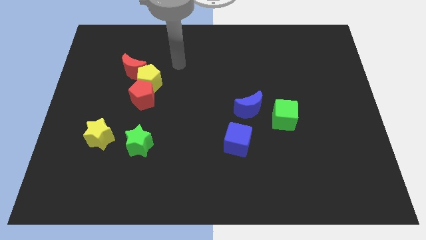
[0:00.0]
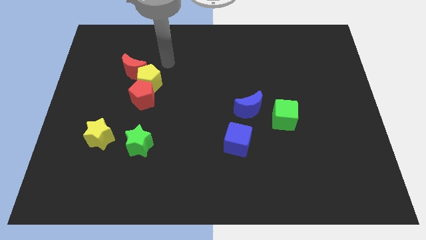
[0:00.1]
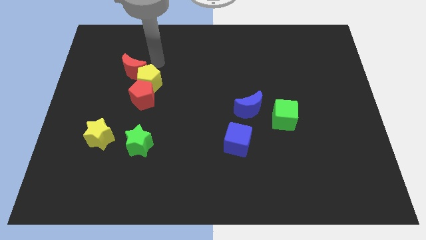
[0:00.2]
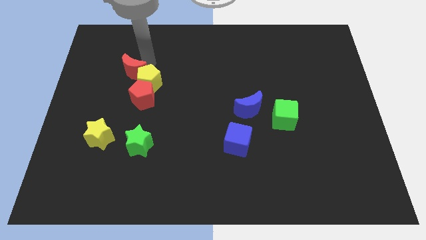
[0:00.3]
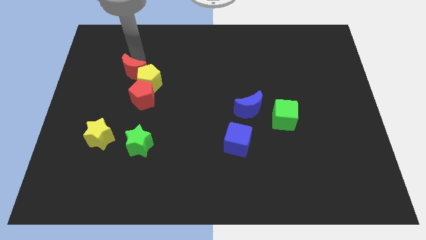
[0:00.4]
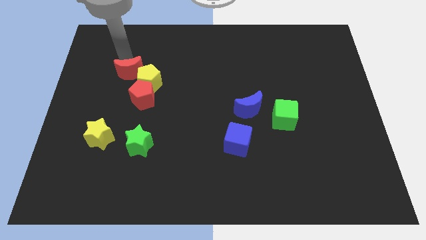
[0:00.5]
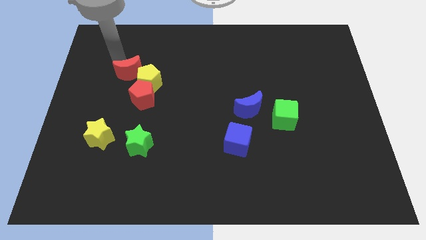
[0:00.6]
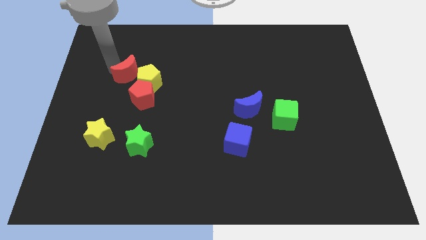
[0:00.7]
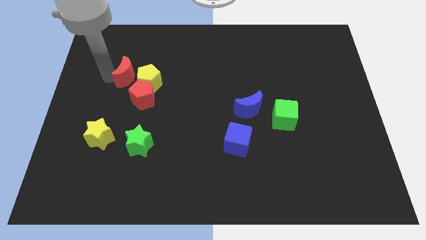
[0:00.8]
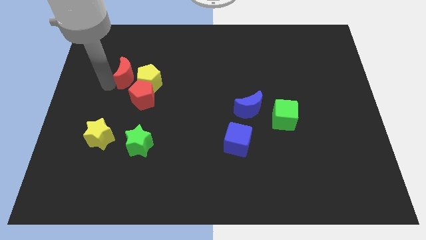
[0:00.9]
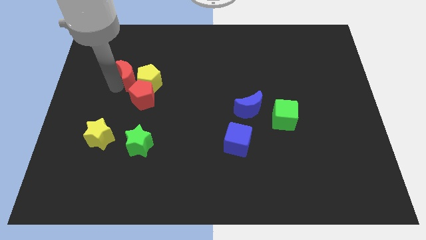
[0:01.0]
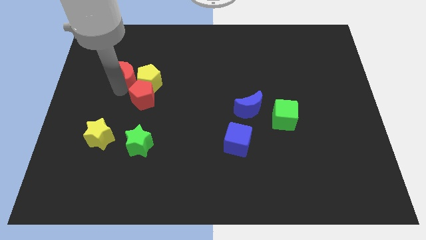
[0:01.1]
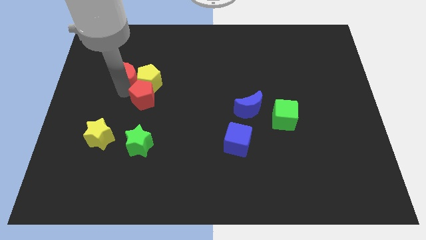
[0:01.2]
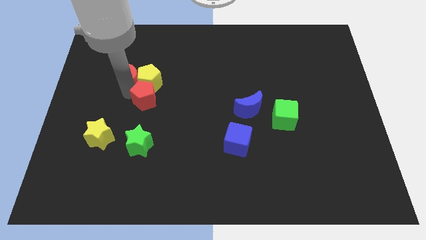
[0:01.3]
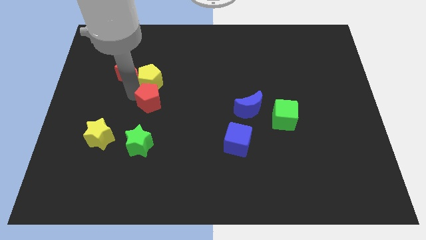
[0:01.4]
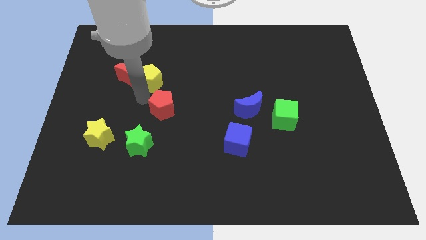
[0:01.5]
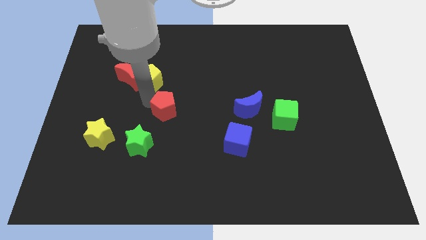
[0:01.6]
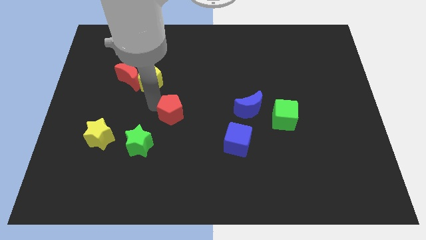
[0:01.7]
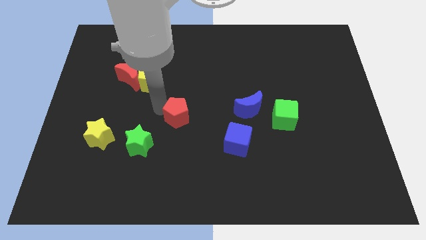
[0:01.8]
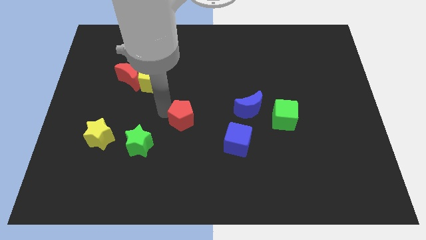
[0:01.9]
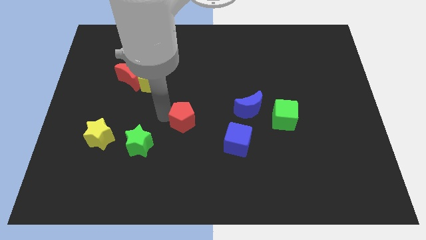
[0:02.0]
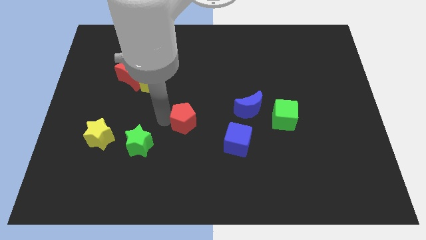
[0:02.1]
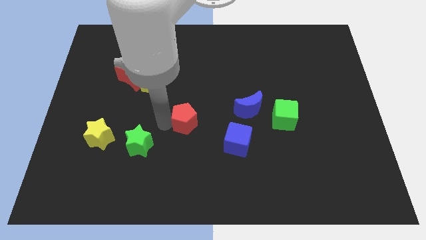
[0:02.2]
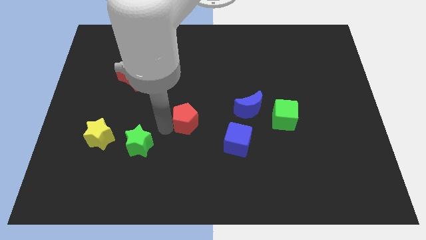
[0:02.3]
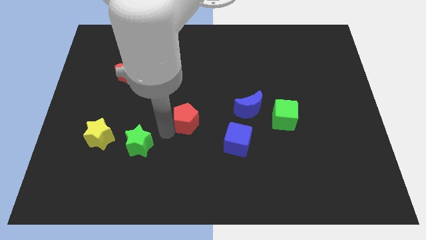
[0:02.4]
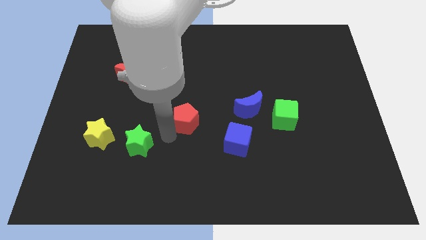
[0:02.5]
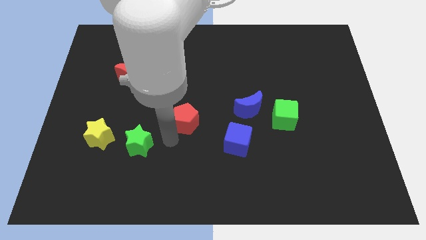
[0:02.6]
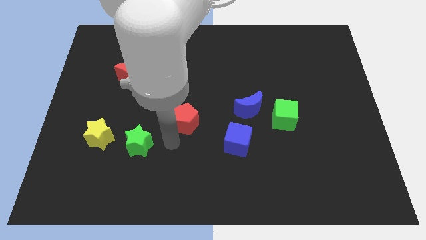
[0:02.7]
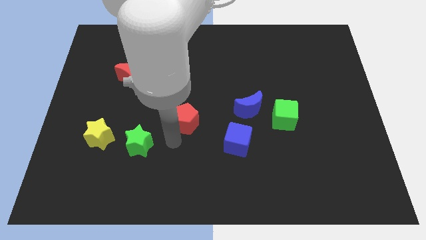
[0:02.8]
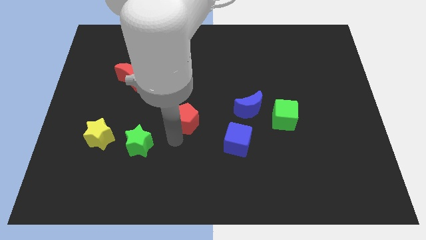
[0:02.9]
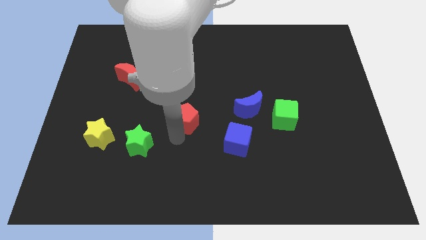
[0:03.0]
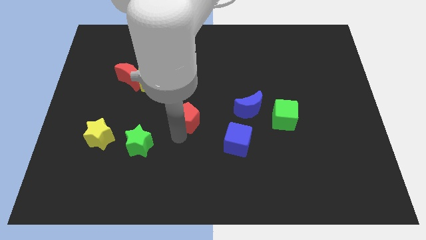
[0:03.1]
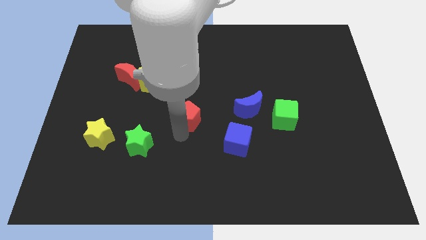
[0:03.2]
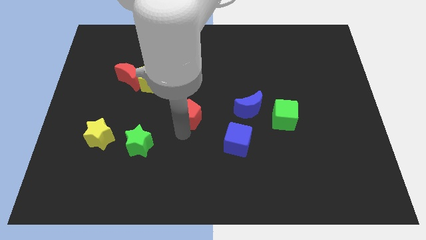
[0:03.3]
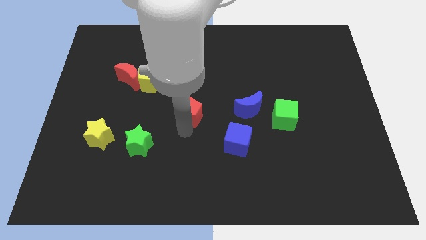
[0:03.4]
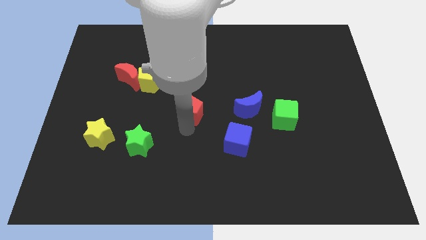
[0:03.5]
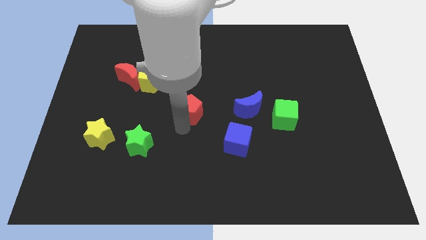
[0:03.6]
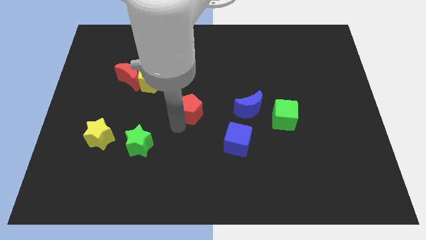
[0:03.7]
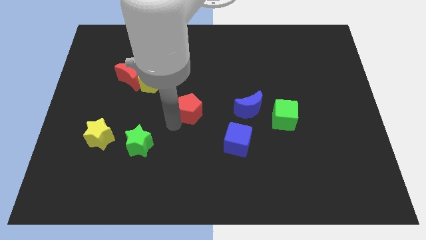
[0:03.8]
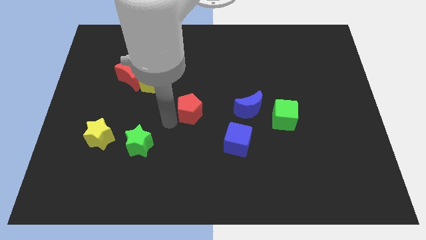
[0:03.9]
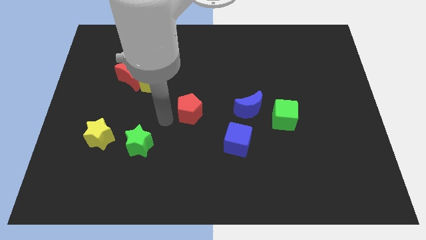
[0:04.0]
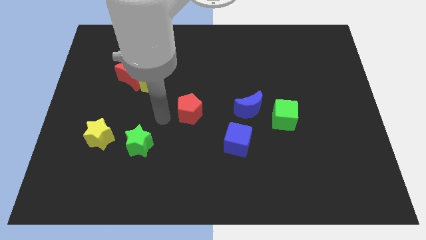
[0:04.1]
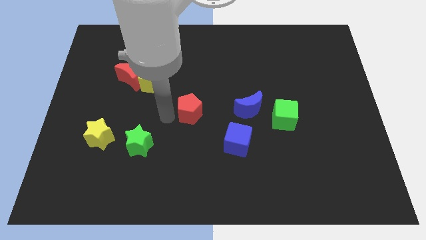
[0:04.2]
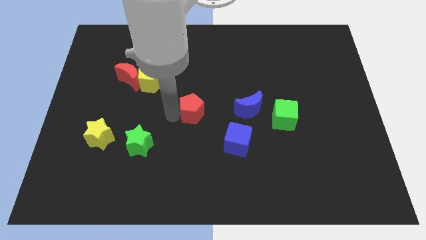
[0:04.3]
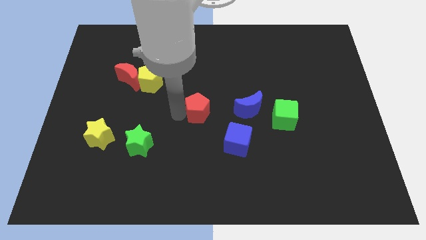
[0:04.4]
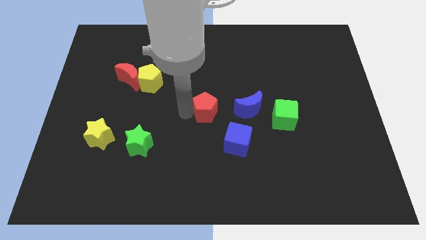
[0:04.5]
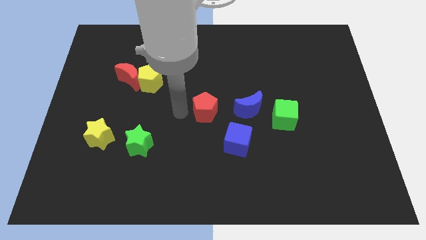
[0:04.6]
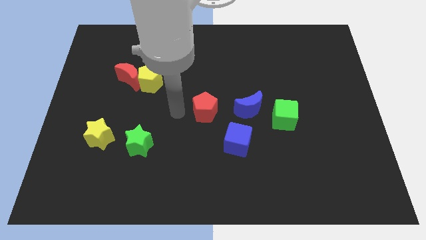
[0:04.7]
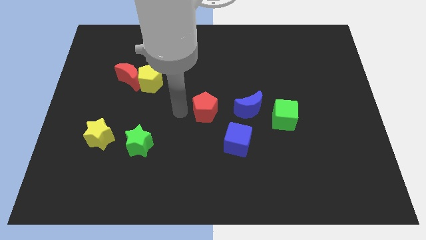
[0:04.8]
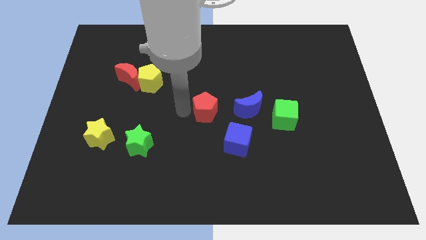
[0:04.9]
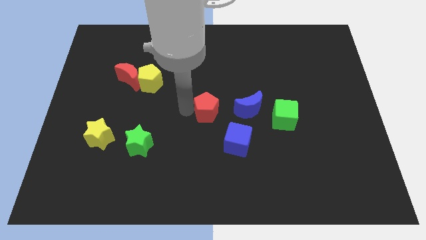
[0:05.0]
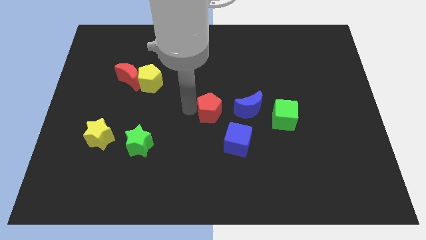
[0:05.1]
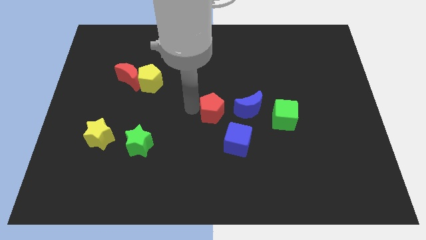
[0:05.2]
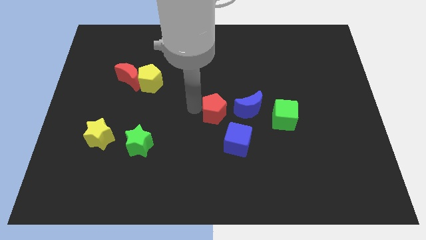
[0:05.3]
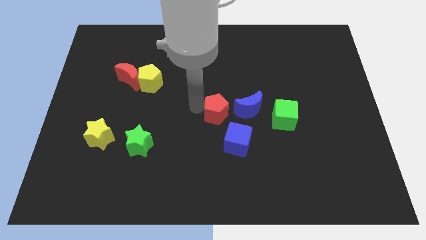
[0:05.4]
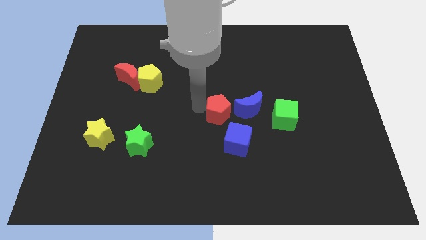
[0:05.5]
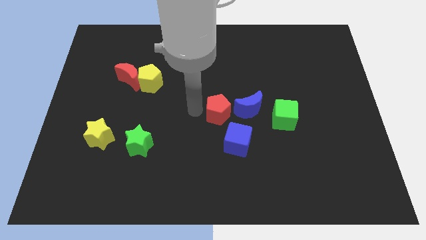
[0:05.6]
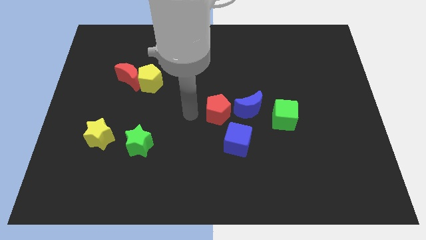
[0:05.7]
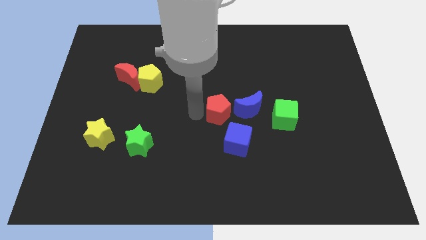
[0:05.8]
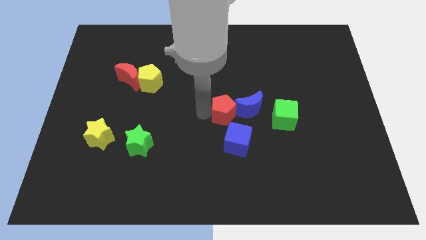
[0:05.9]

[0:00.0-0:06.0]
slide the red pentagon next to the blue moon

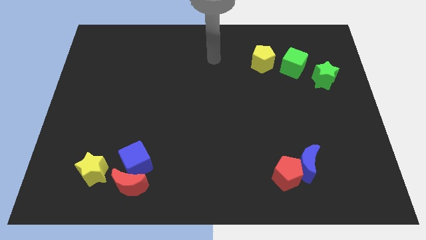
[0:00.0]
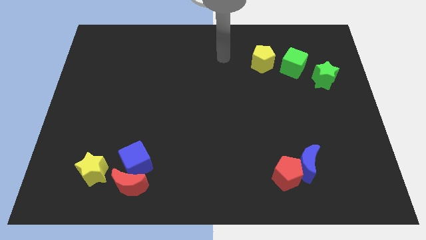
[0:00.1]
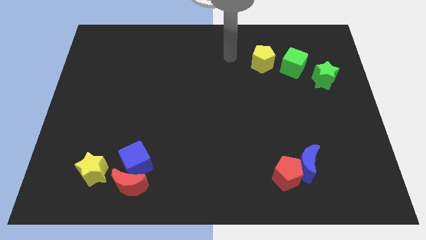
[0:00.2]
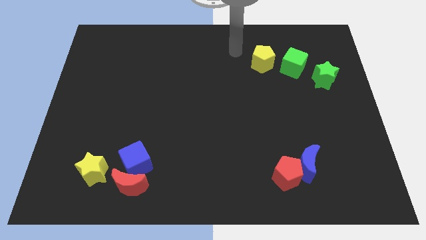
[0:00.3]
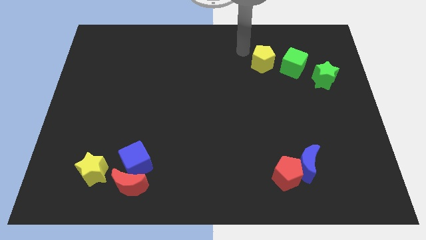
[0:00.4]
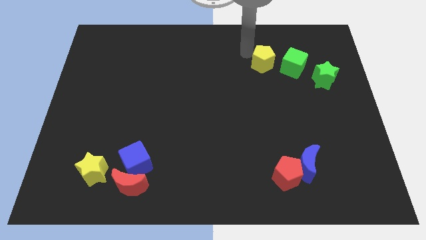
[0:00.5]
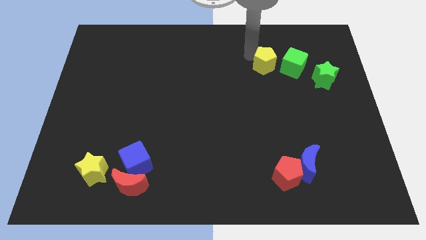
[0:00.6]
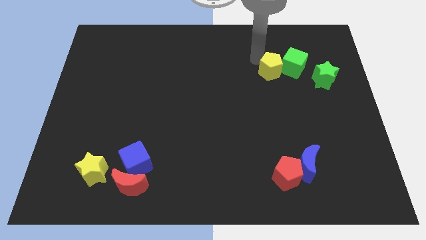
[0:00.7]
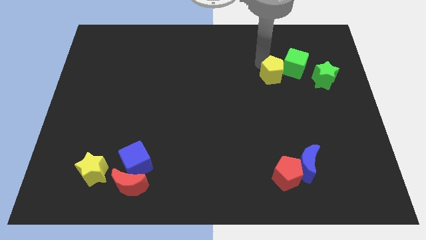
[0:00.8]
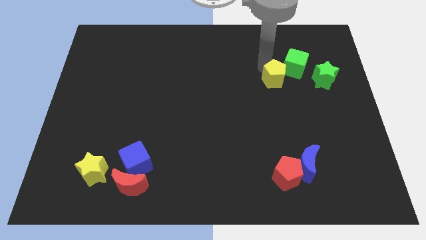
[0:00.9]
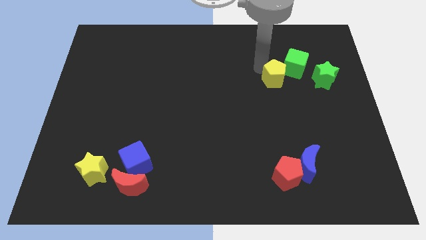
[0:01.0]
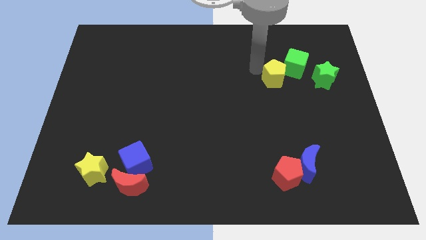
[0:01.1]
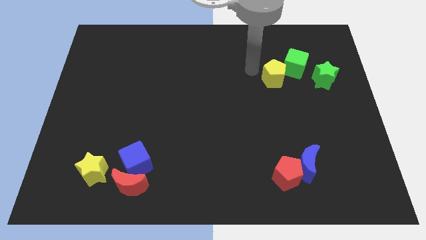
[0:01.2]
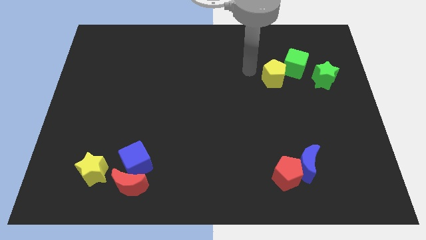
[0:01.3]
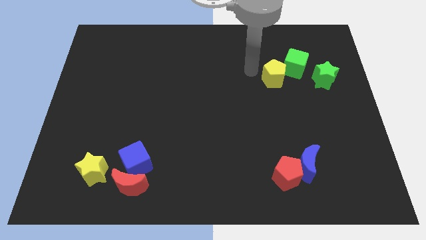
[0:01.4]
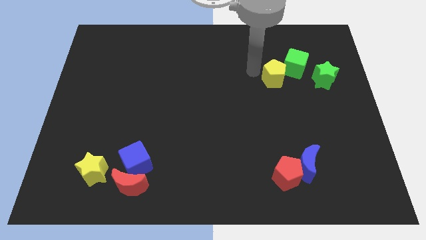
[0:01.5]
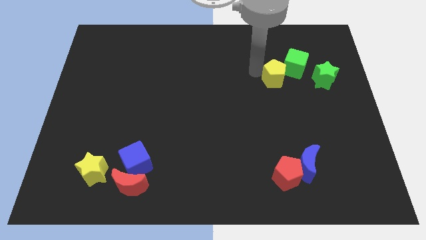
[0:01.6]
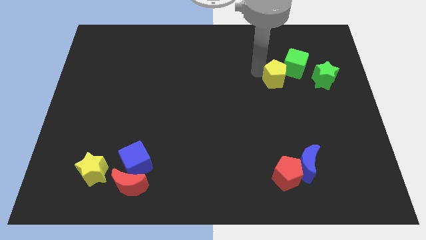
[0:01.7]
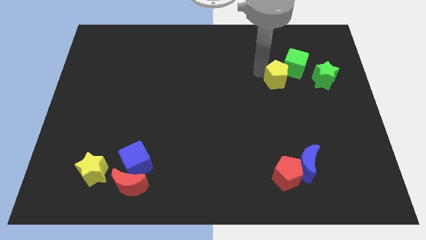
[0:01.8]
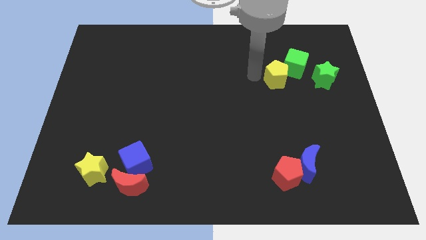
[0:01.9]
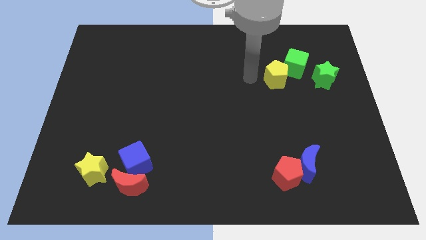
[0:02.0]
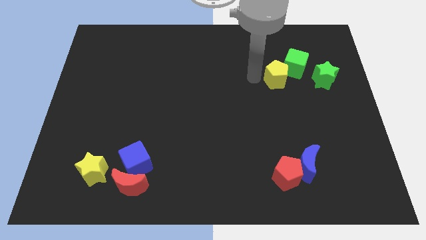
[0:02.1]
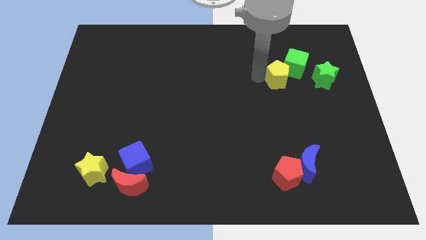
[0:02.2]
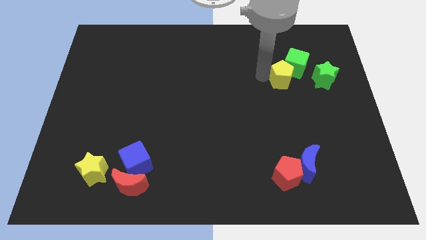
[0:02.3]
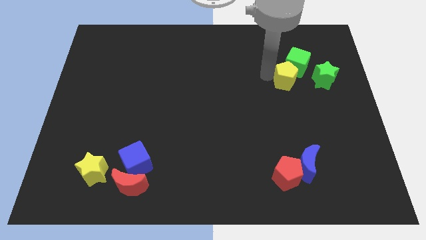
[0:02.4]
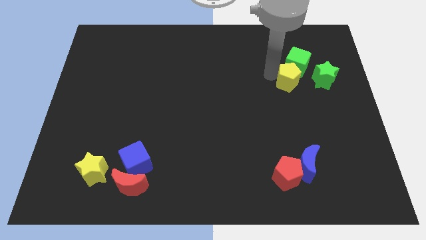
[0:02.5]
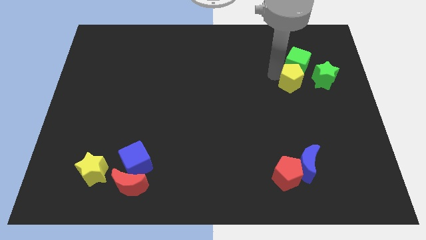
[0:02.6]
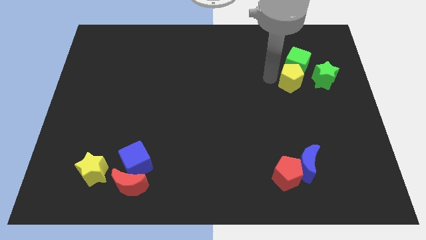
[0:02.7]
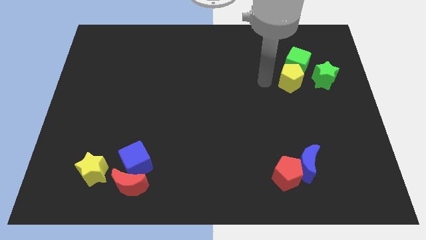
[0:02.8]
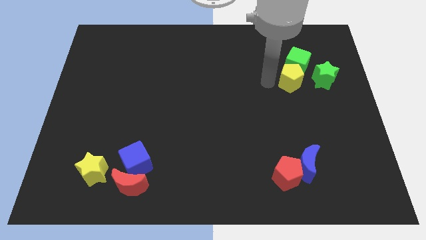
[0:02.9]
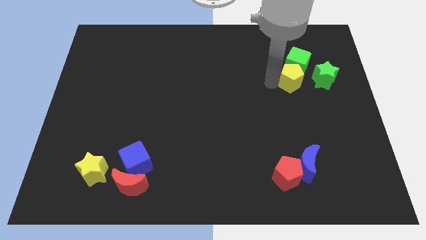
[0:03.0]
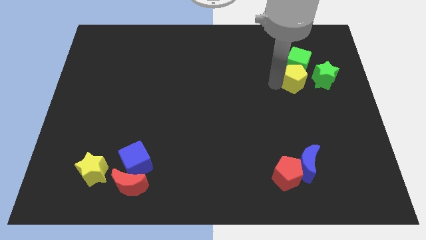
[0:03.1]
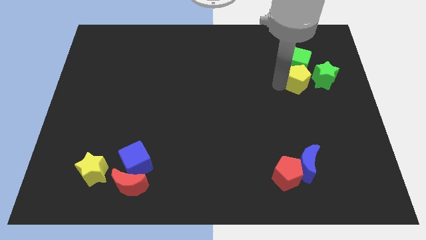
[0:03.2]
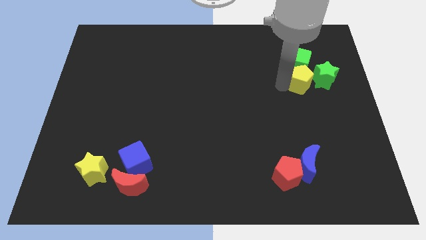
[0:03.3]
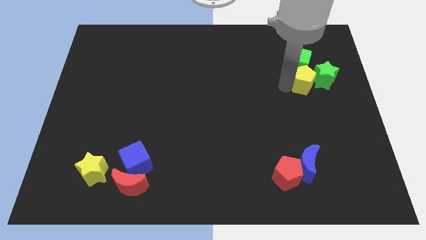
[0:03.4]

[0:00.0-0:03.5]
put the yellow pentagon to the green star
